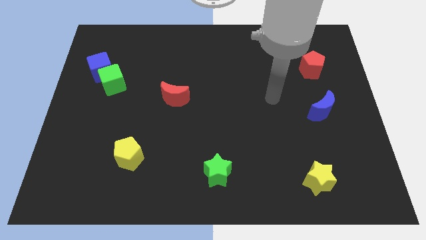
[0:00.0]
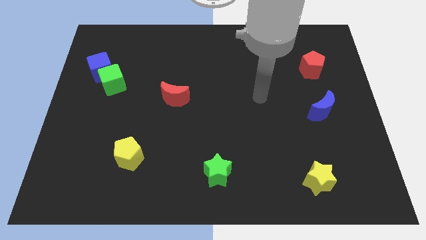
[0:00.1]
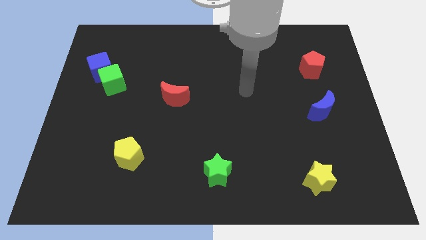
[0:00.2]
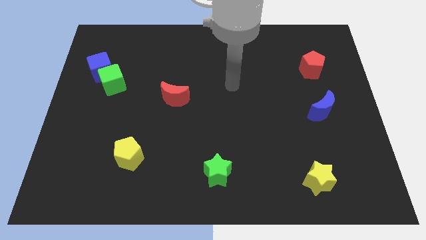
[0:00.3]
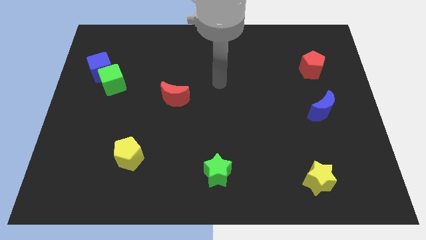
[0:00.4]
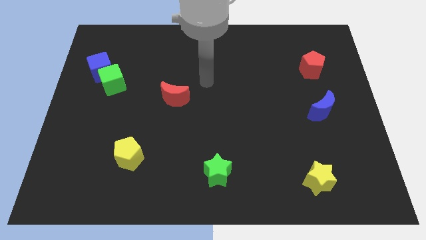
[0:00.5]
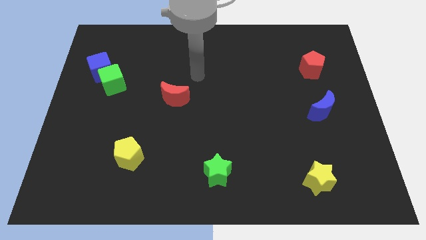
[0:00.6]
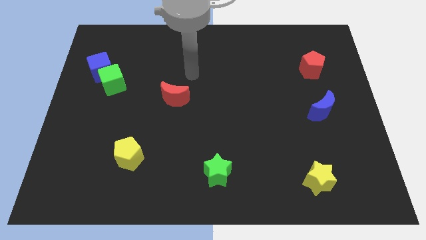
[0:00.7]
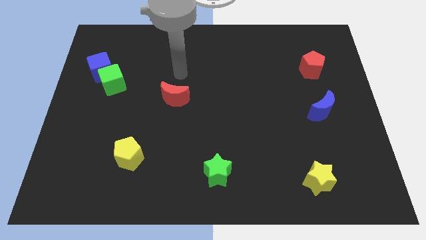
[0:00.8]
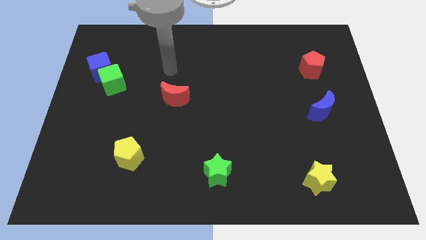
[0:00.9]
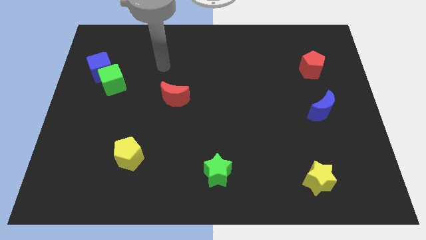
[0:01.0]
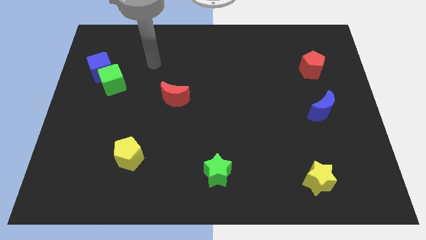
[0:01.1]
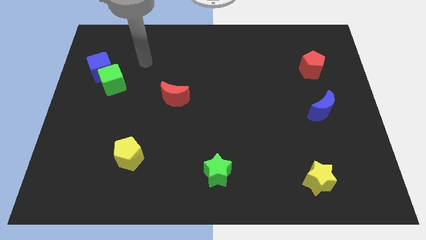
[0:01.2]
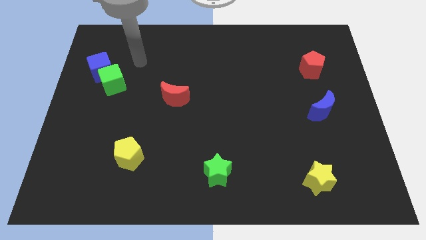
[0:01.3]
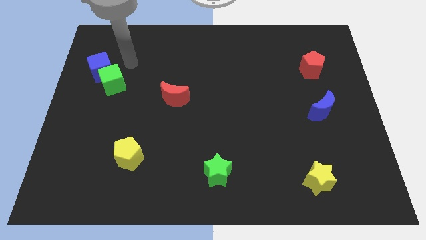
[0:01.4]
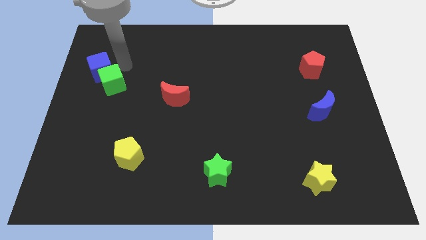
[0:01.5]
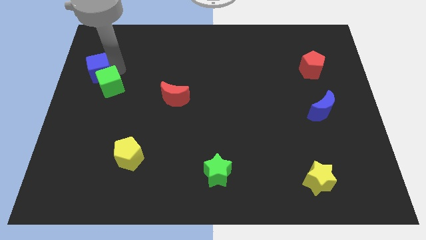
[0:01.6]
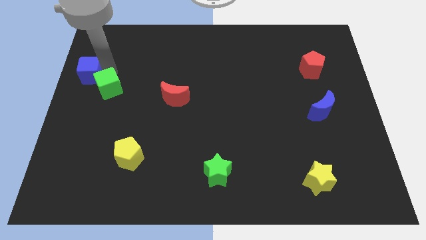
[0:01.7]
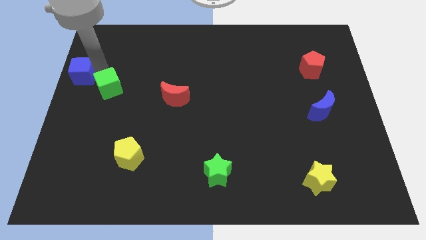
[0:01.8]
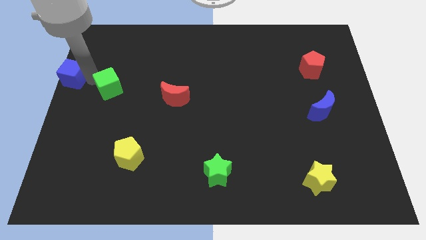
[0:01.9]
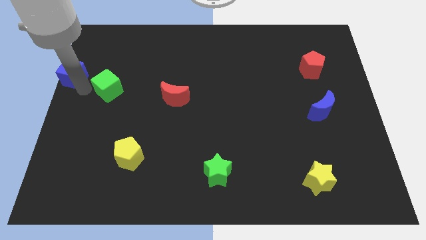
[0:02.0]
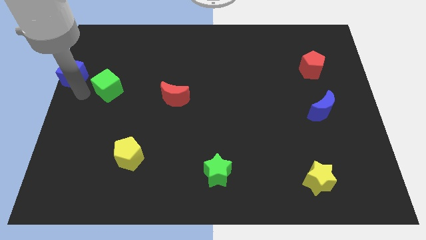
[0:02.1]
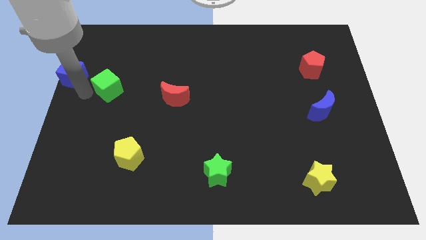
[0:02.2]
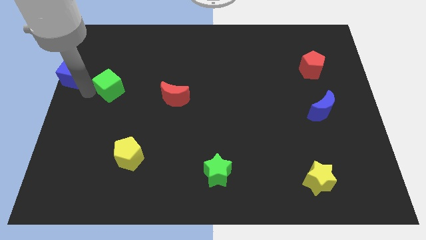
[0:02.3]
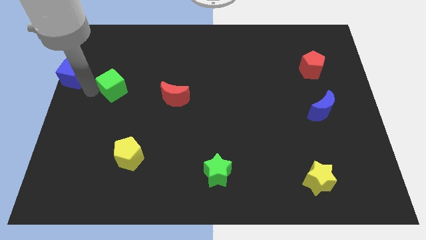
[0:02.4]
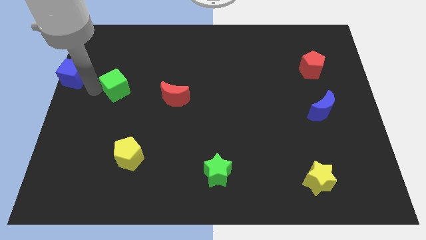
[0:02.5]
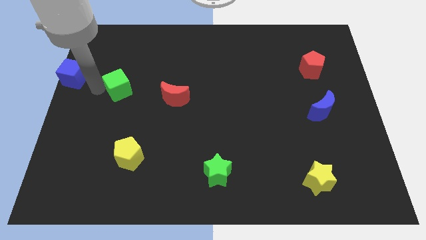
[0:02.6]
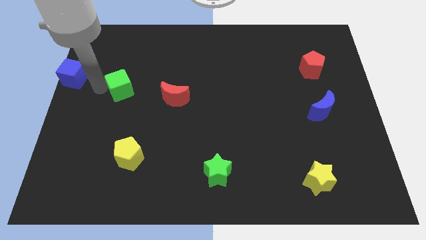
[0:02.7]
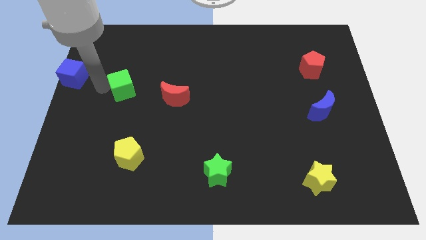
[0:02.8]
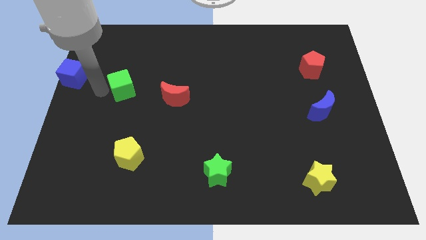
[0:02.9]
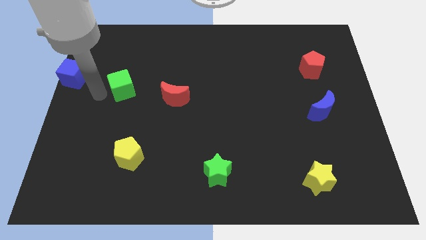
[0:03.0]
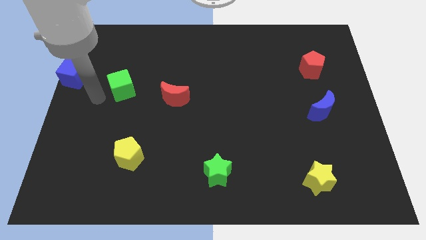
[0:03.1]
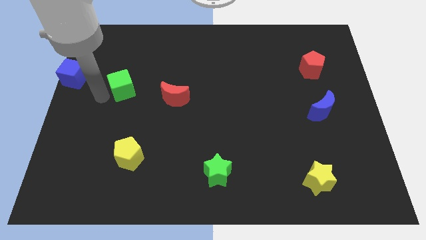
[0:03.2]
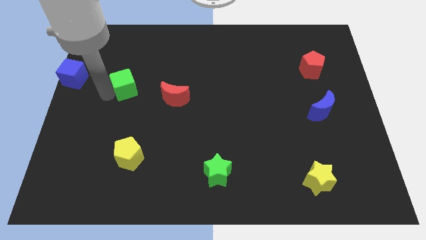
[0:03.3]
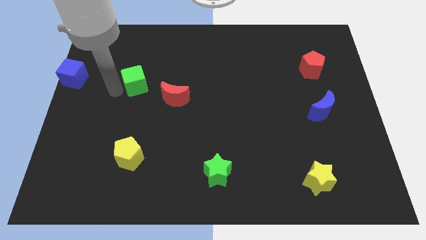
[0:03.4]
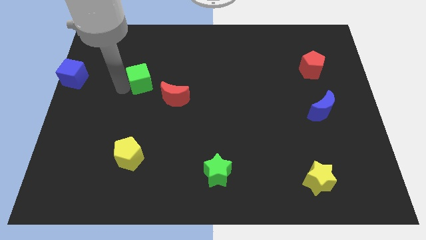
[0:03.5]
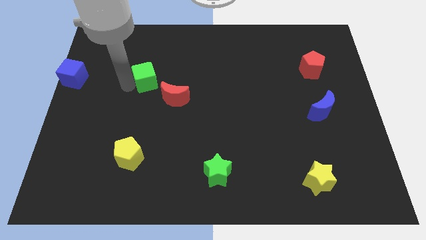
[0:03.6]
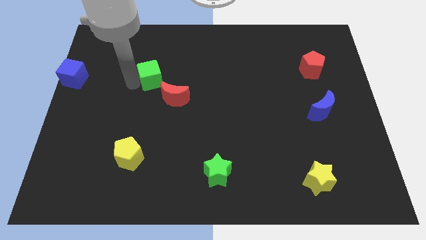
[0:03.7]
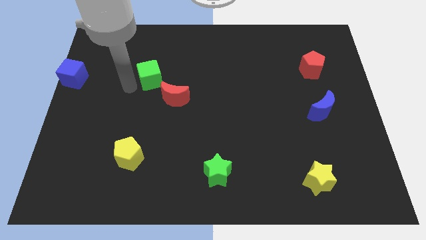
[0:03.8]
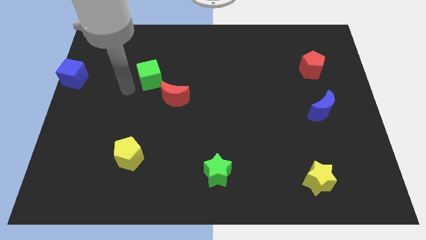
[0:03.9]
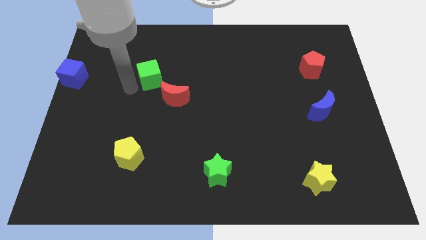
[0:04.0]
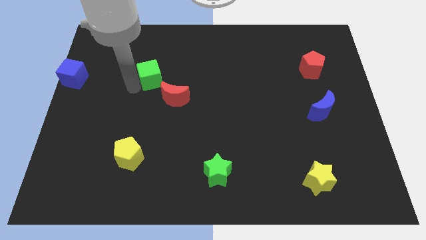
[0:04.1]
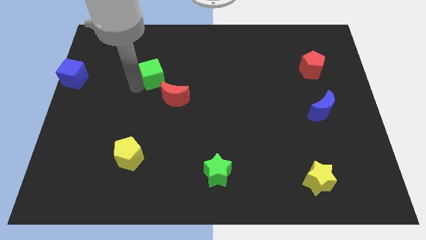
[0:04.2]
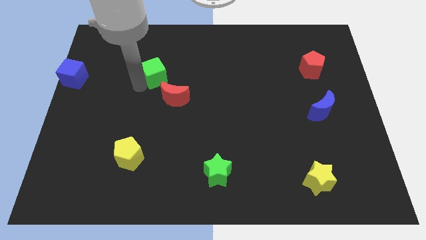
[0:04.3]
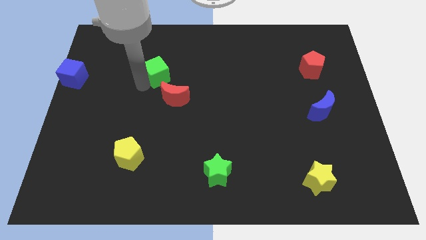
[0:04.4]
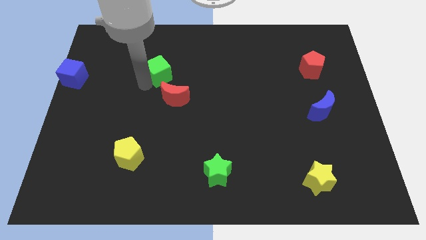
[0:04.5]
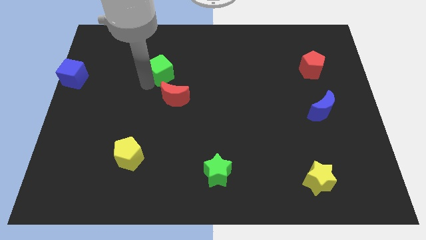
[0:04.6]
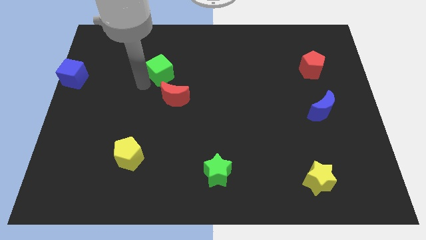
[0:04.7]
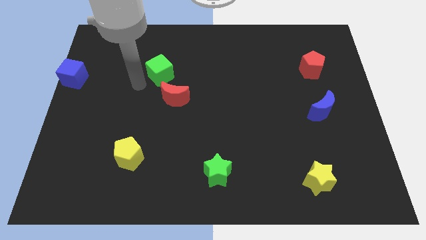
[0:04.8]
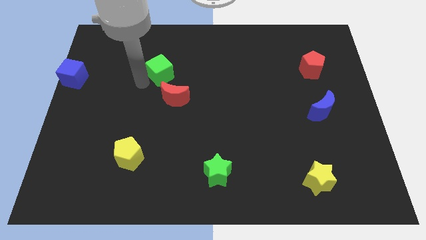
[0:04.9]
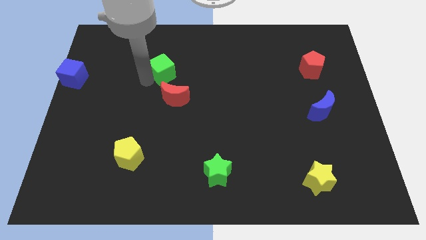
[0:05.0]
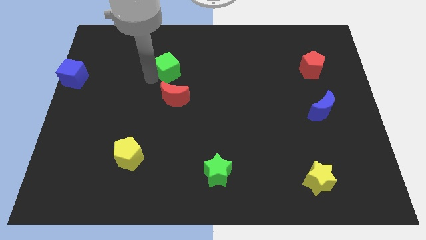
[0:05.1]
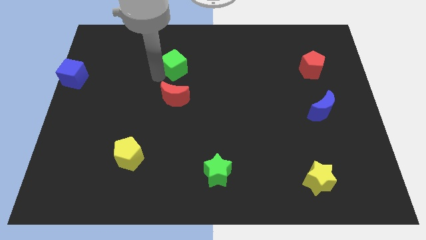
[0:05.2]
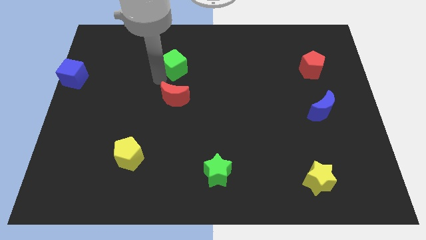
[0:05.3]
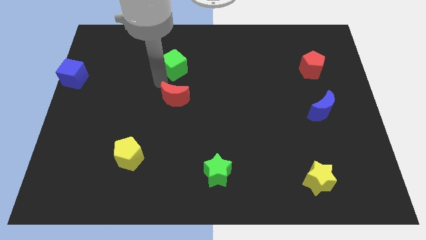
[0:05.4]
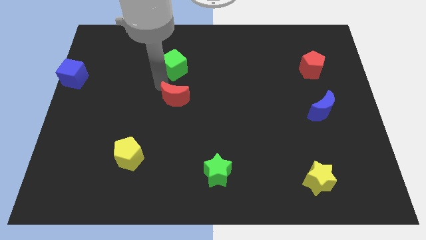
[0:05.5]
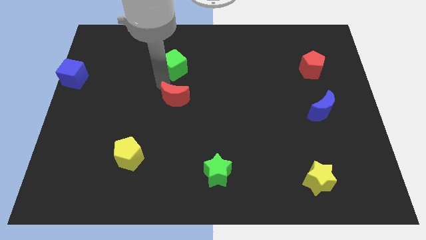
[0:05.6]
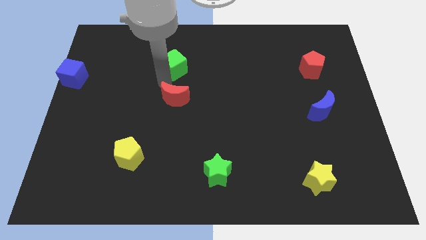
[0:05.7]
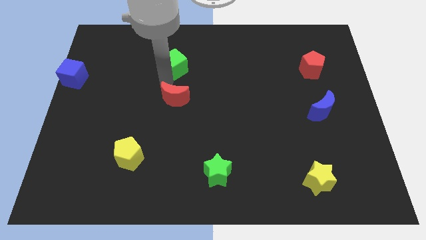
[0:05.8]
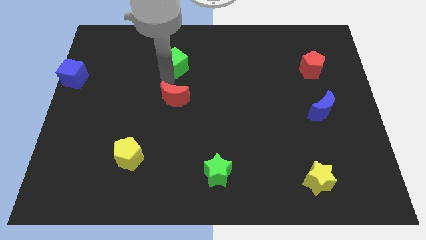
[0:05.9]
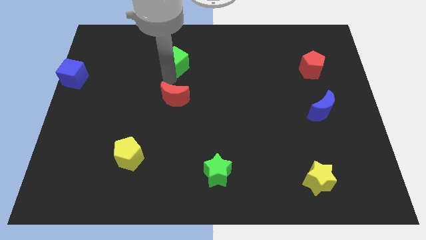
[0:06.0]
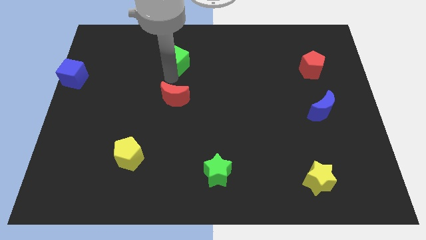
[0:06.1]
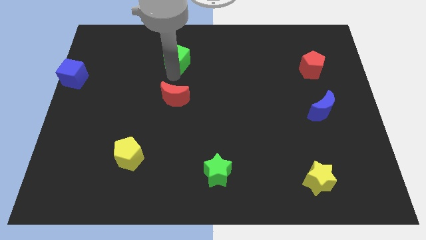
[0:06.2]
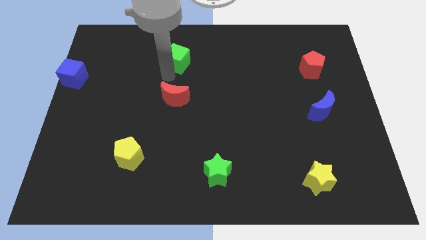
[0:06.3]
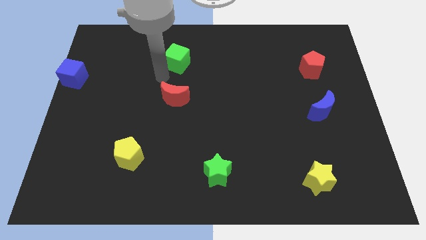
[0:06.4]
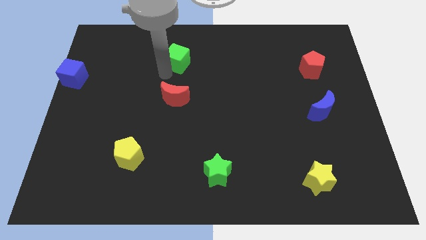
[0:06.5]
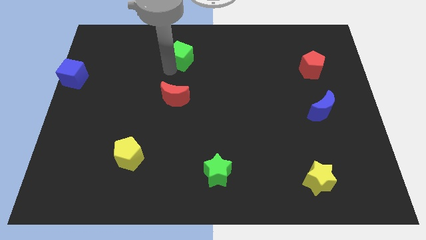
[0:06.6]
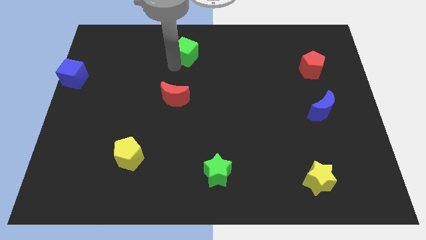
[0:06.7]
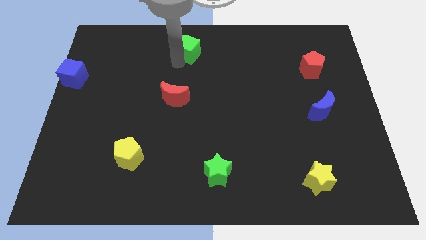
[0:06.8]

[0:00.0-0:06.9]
push the green cube to the towards your base
